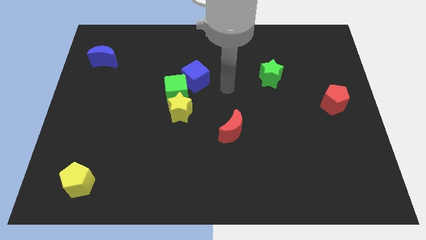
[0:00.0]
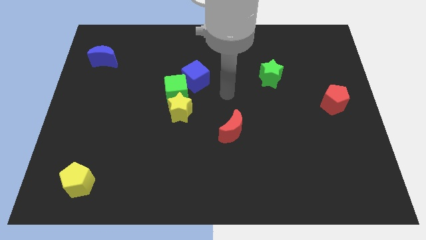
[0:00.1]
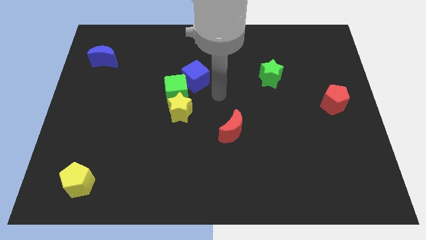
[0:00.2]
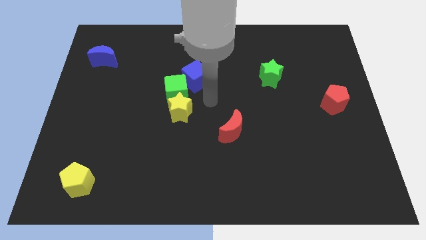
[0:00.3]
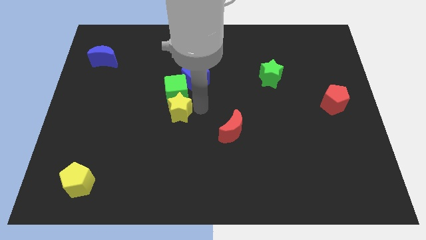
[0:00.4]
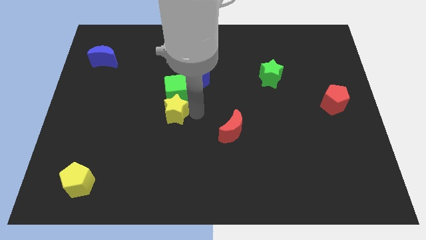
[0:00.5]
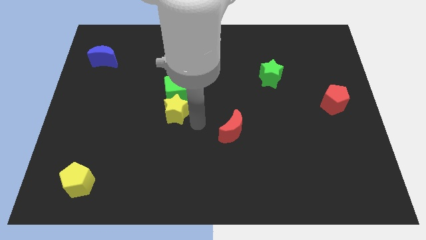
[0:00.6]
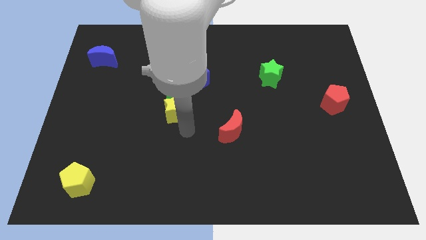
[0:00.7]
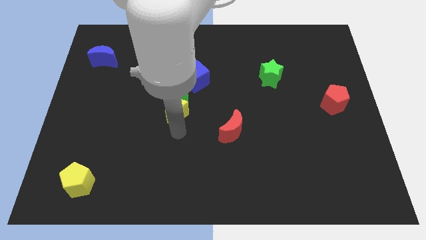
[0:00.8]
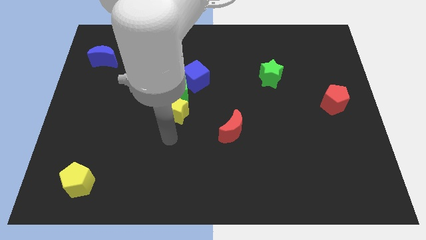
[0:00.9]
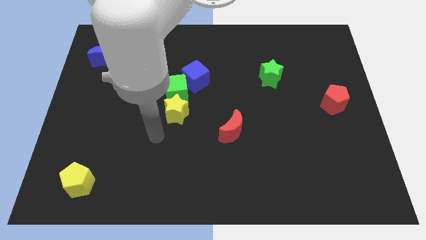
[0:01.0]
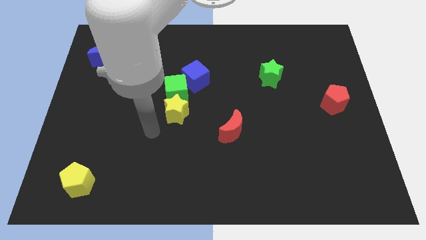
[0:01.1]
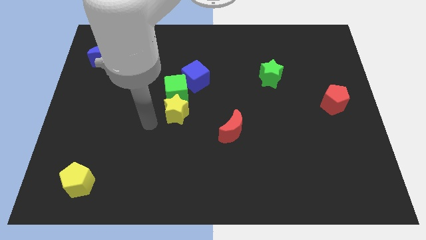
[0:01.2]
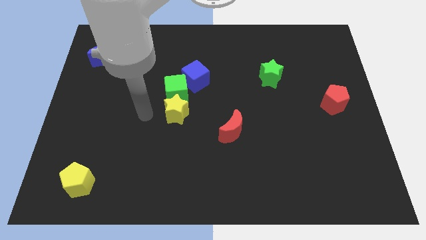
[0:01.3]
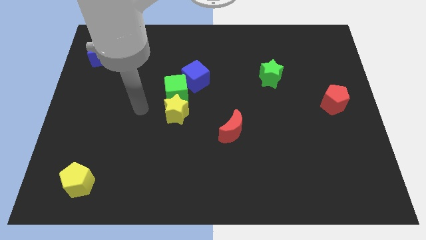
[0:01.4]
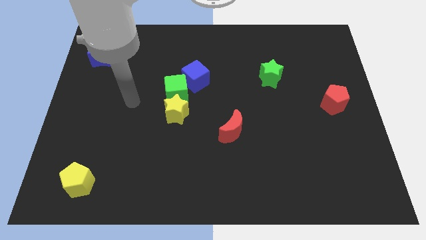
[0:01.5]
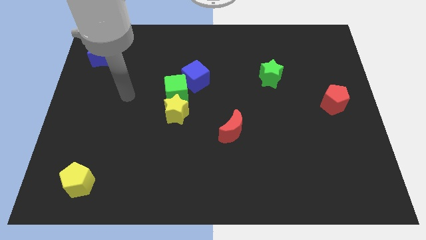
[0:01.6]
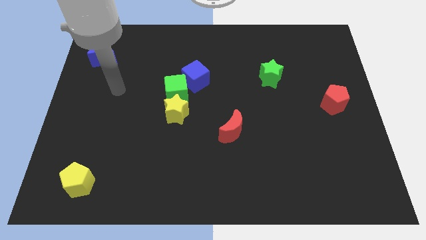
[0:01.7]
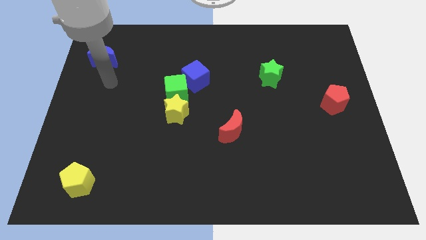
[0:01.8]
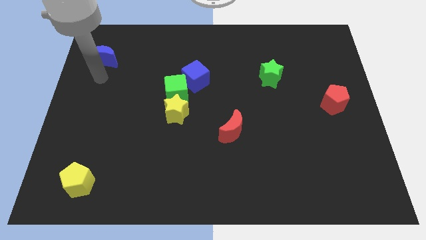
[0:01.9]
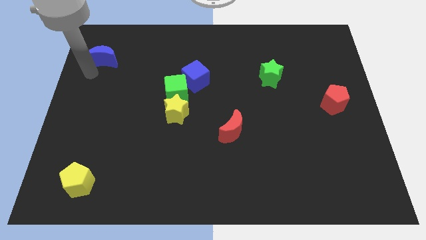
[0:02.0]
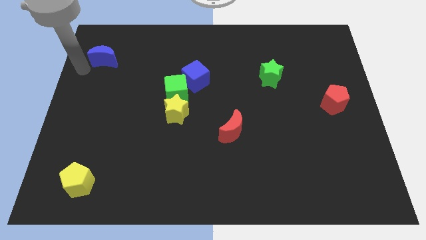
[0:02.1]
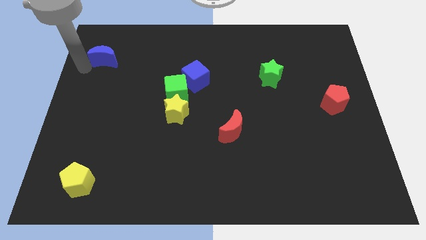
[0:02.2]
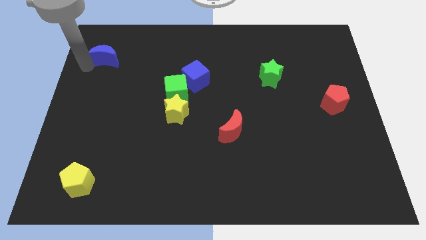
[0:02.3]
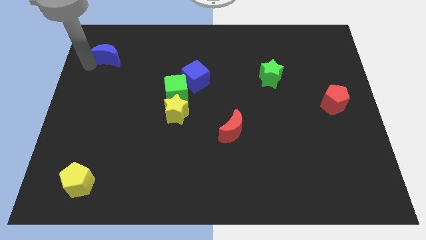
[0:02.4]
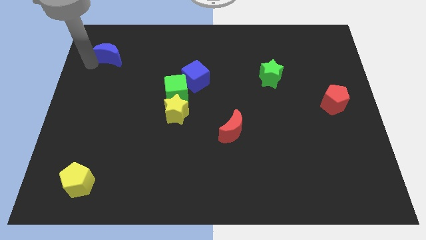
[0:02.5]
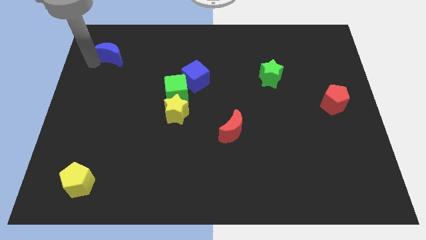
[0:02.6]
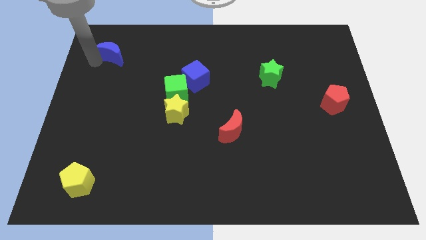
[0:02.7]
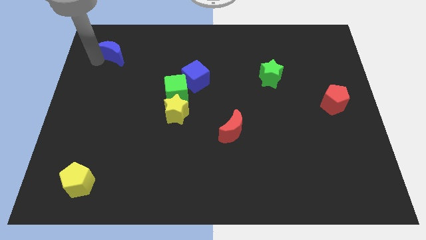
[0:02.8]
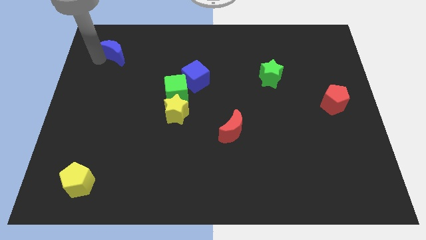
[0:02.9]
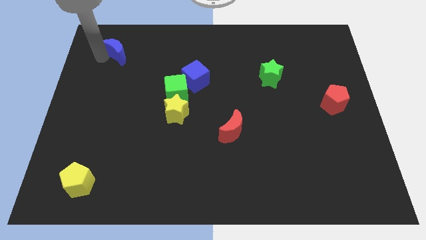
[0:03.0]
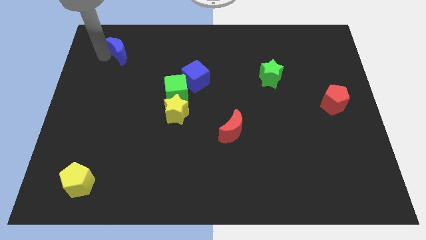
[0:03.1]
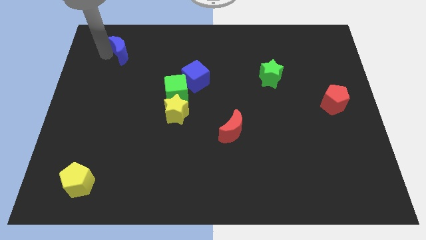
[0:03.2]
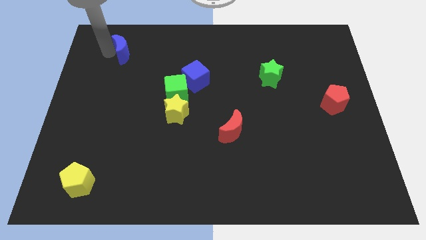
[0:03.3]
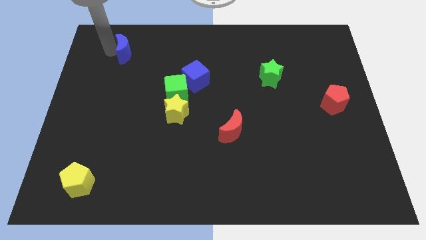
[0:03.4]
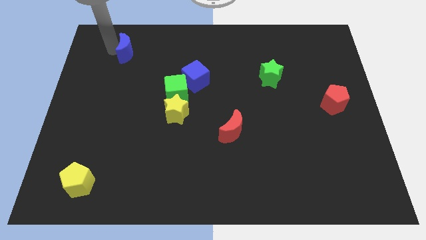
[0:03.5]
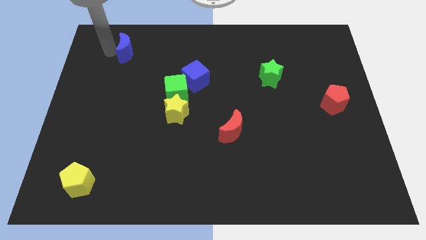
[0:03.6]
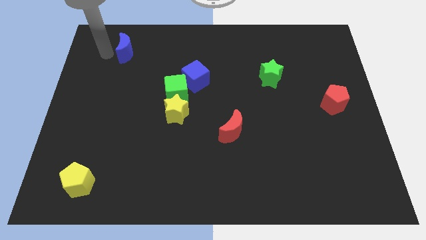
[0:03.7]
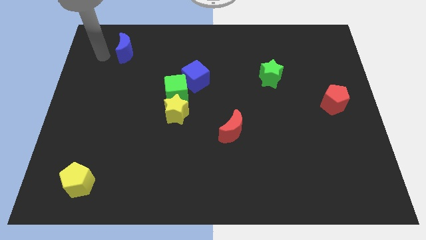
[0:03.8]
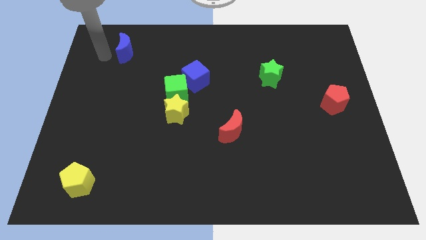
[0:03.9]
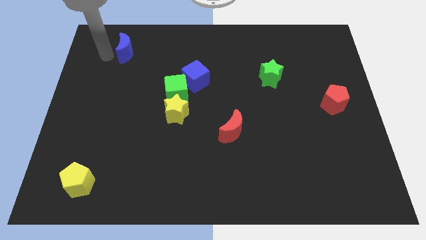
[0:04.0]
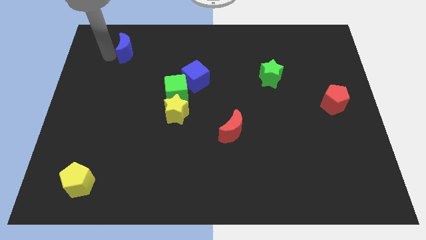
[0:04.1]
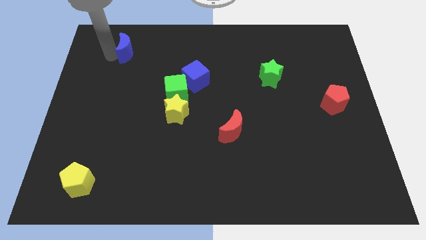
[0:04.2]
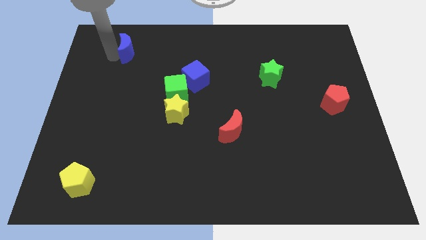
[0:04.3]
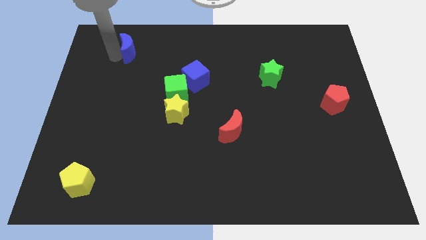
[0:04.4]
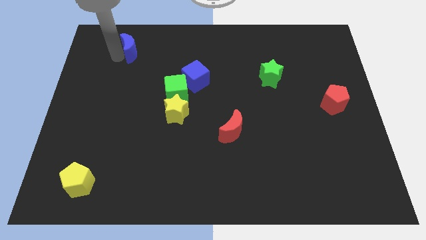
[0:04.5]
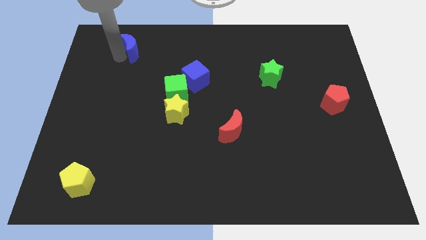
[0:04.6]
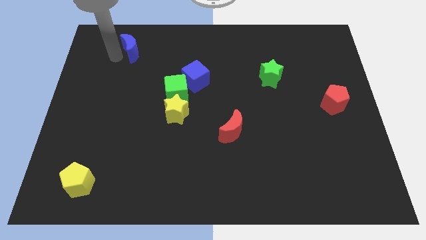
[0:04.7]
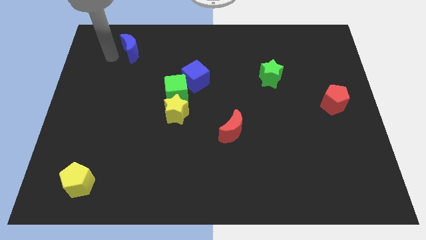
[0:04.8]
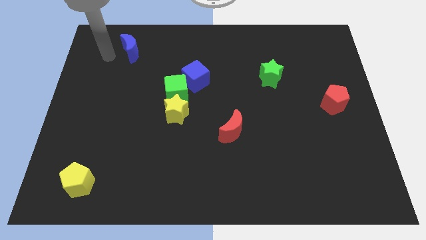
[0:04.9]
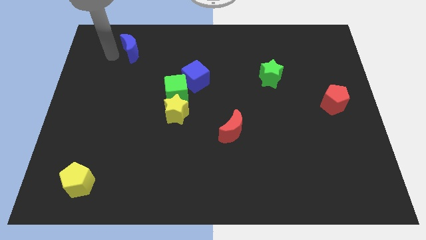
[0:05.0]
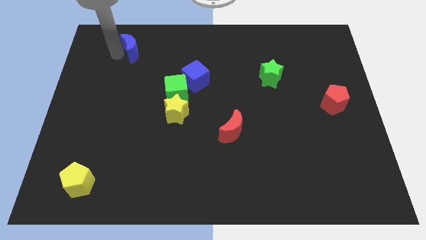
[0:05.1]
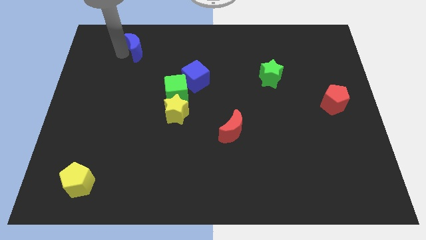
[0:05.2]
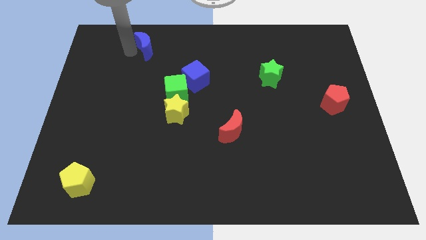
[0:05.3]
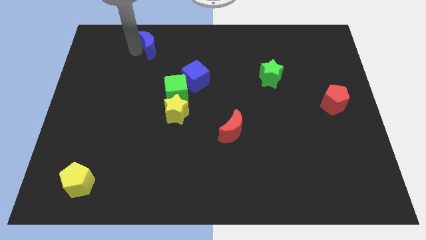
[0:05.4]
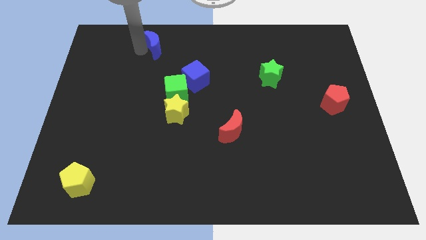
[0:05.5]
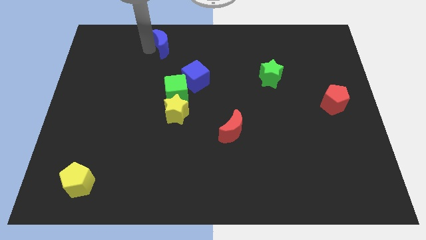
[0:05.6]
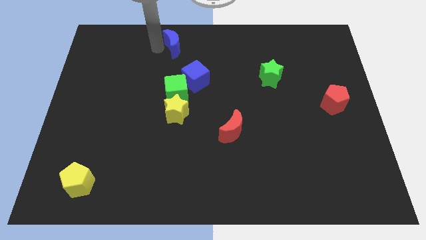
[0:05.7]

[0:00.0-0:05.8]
put the blue moon to the top

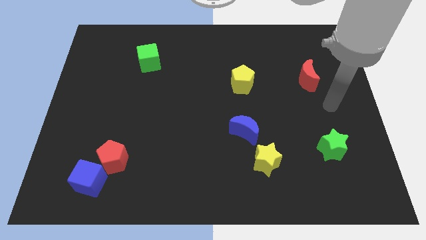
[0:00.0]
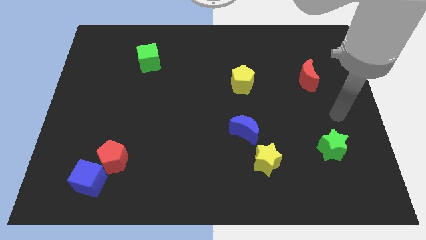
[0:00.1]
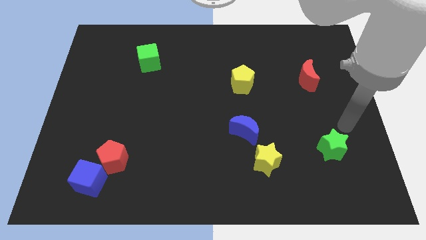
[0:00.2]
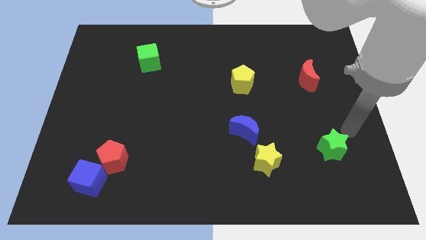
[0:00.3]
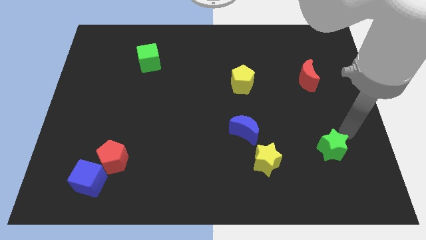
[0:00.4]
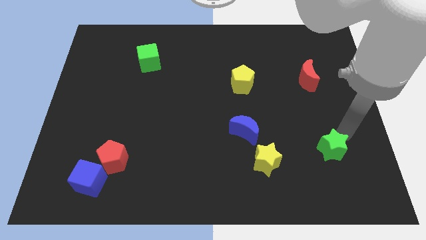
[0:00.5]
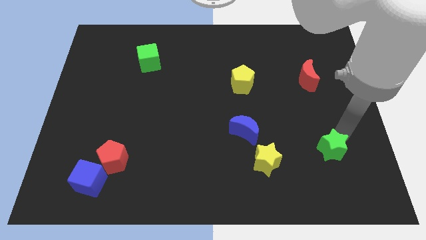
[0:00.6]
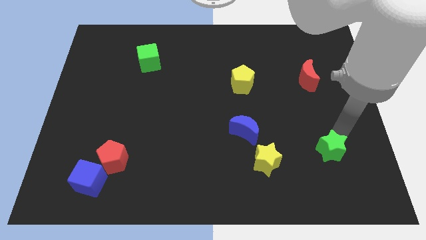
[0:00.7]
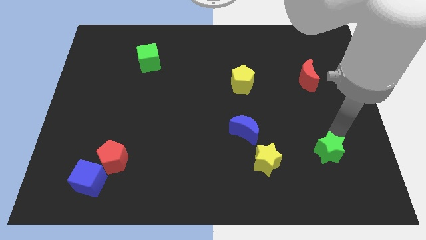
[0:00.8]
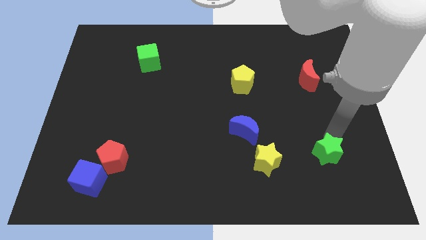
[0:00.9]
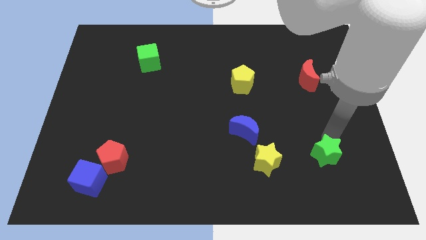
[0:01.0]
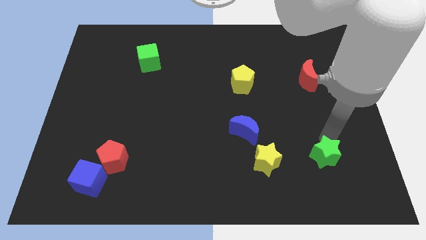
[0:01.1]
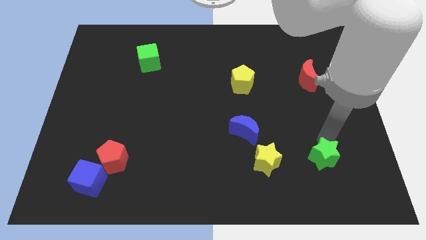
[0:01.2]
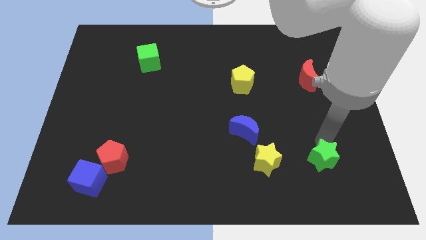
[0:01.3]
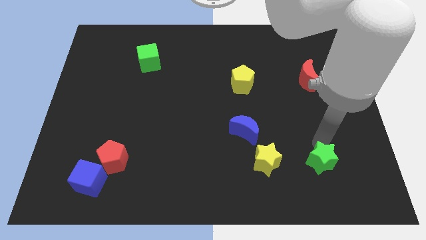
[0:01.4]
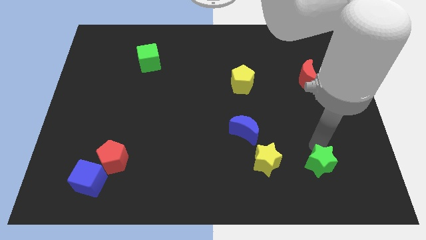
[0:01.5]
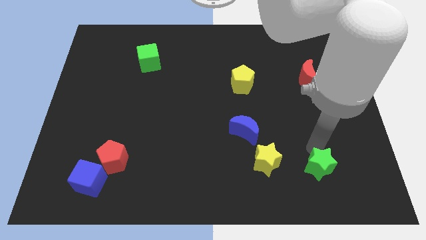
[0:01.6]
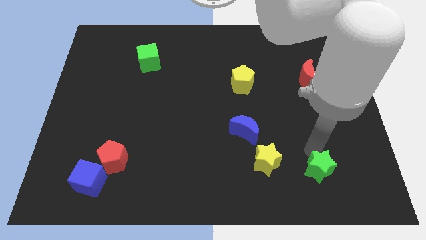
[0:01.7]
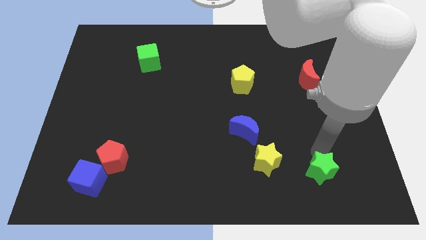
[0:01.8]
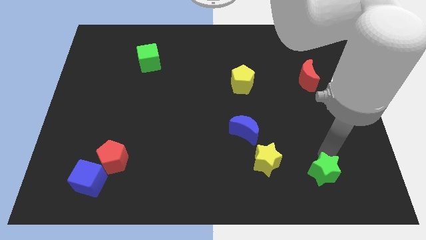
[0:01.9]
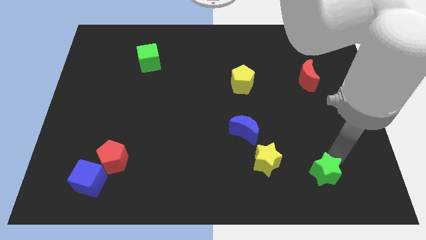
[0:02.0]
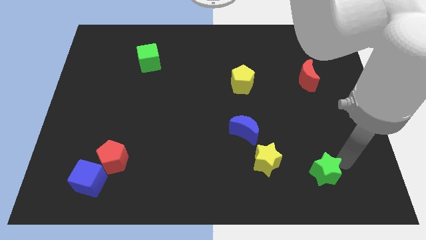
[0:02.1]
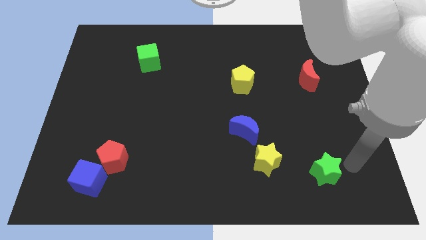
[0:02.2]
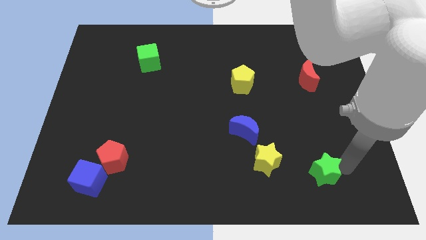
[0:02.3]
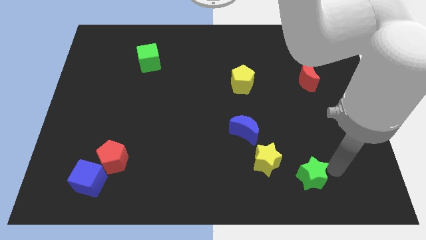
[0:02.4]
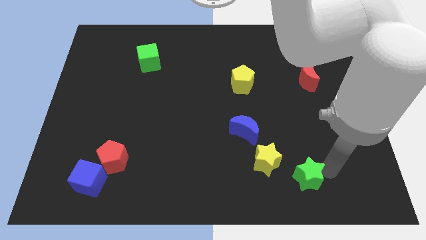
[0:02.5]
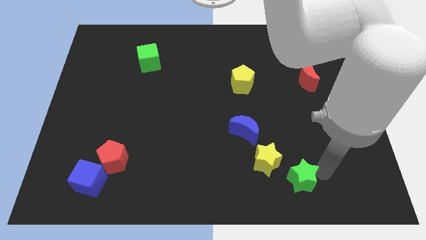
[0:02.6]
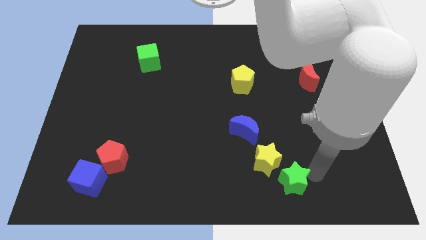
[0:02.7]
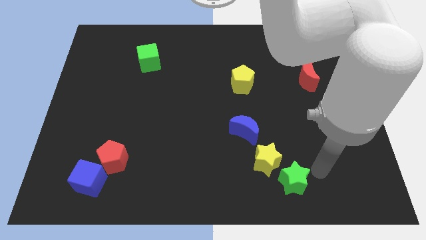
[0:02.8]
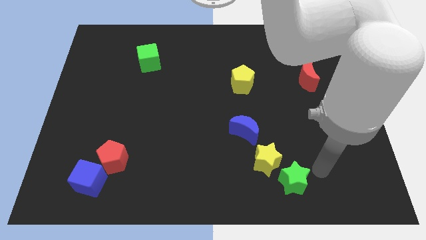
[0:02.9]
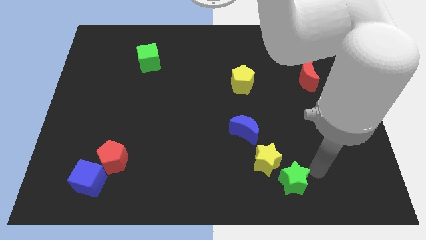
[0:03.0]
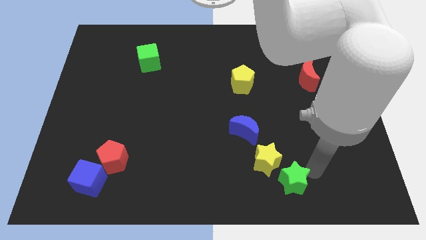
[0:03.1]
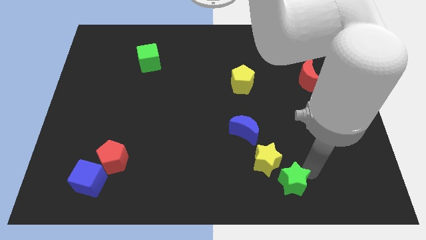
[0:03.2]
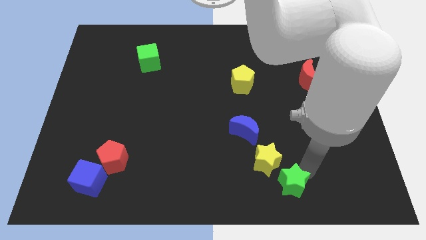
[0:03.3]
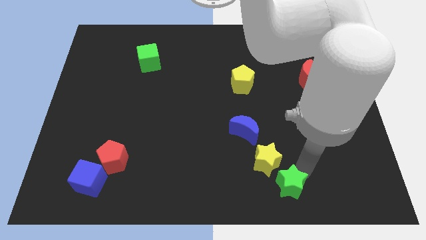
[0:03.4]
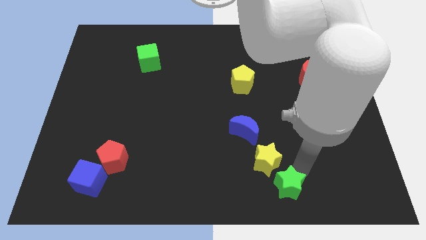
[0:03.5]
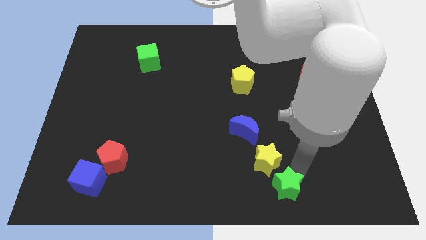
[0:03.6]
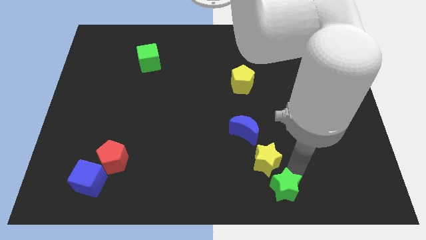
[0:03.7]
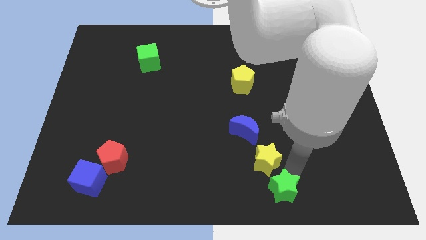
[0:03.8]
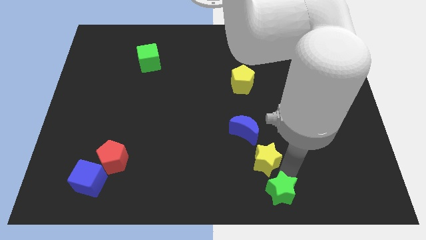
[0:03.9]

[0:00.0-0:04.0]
move the green star to the bottom
